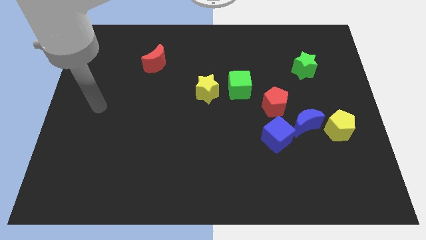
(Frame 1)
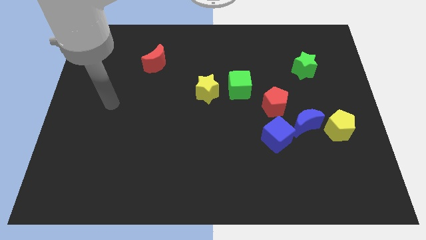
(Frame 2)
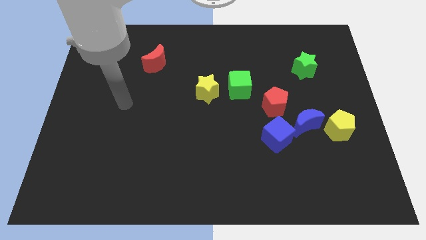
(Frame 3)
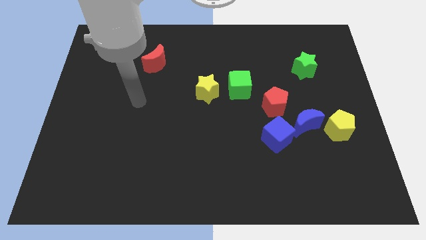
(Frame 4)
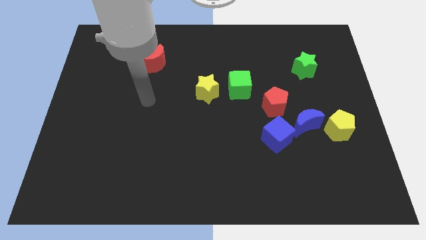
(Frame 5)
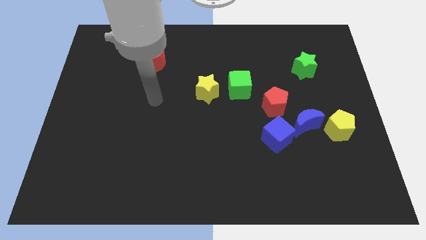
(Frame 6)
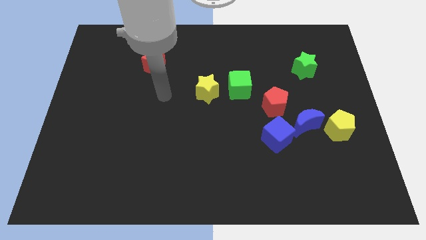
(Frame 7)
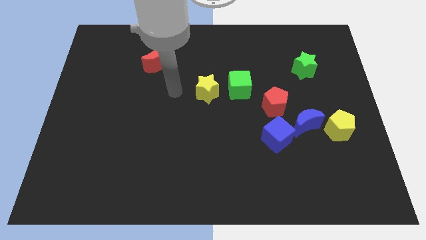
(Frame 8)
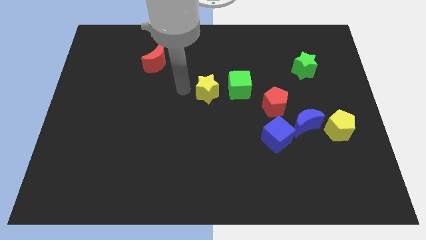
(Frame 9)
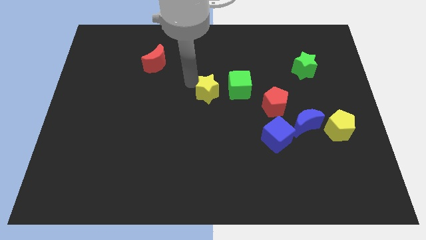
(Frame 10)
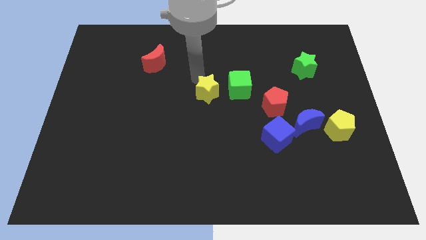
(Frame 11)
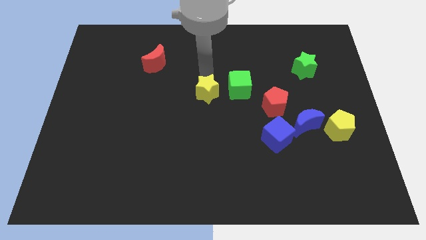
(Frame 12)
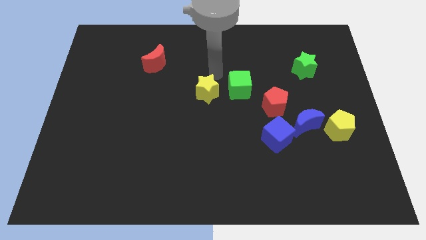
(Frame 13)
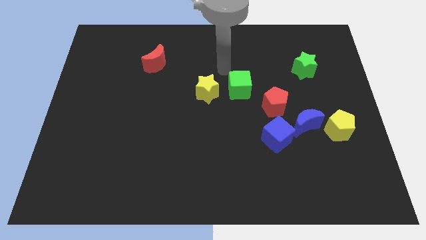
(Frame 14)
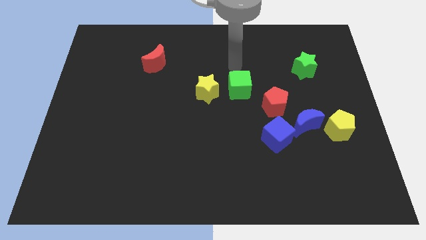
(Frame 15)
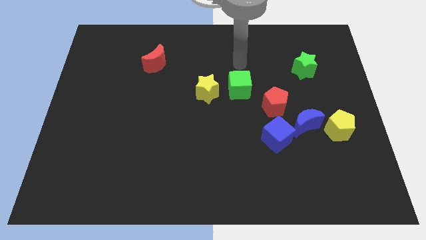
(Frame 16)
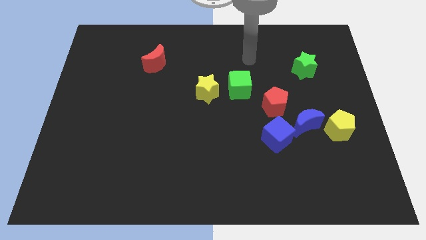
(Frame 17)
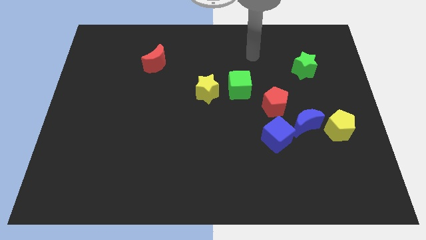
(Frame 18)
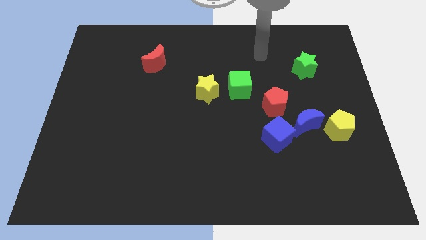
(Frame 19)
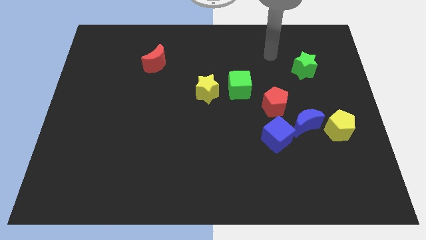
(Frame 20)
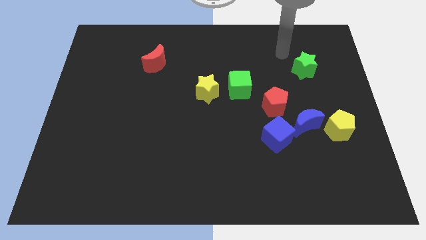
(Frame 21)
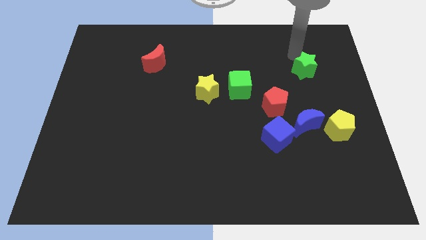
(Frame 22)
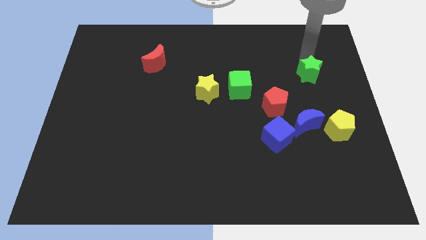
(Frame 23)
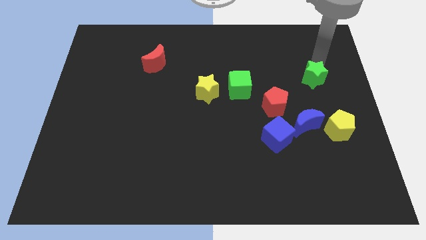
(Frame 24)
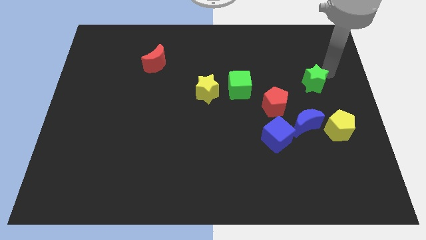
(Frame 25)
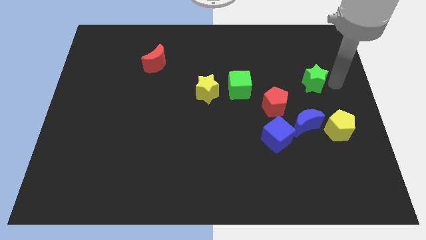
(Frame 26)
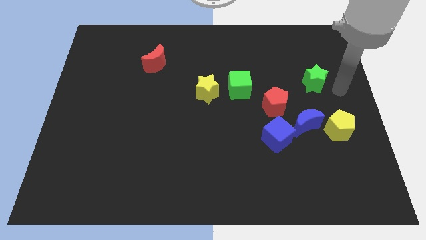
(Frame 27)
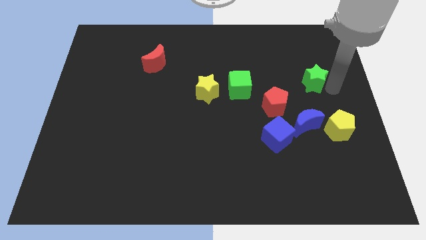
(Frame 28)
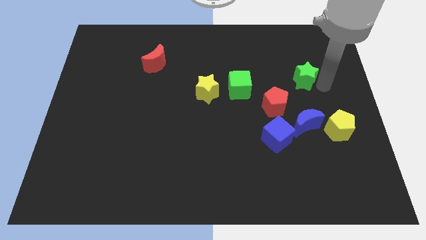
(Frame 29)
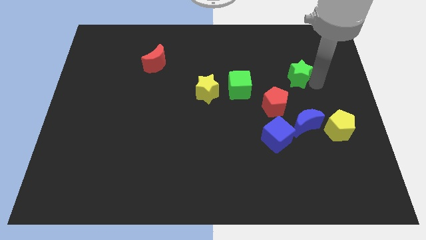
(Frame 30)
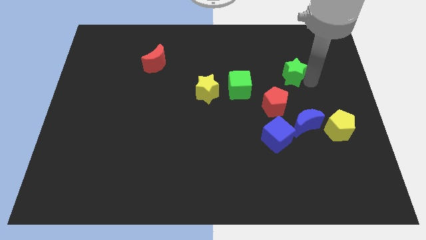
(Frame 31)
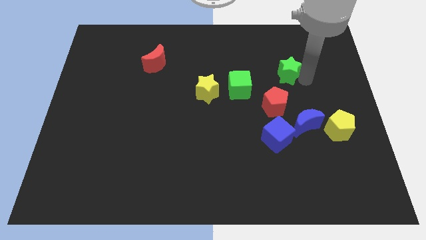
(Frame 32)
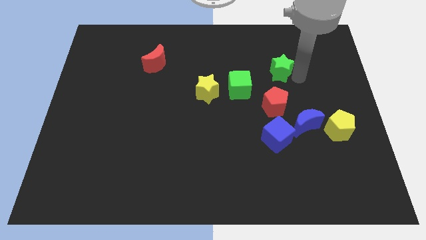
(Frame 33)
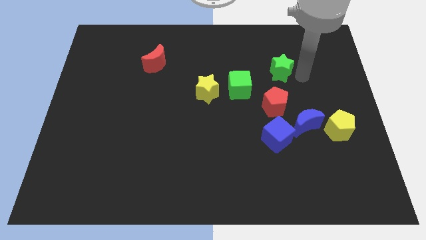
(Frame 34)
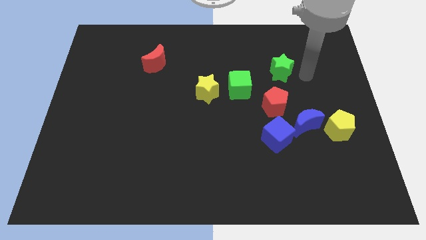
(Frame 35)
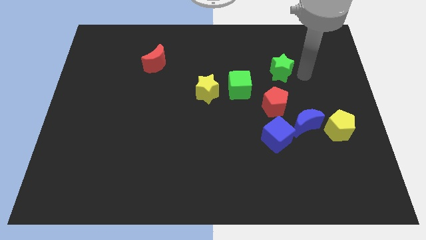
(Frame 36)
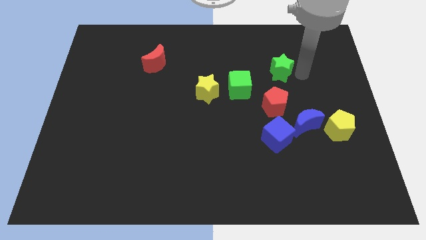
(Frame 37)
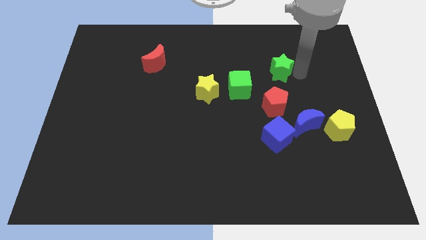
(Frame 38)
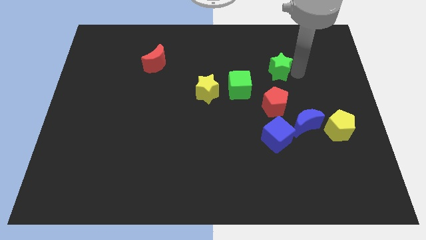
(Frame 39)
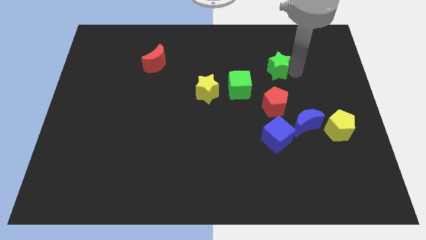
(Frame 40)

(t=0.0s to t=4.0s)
slightly move the green star left

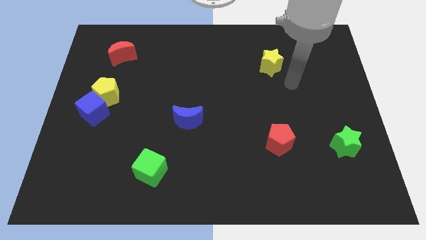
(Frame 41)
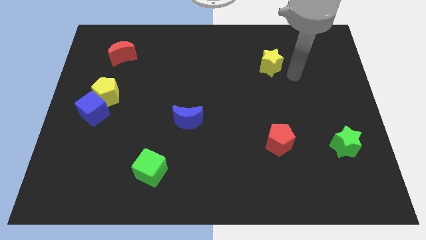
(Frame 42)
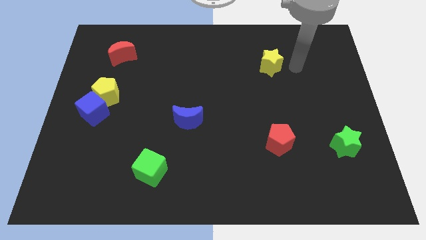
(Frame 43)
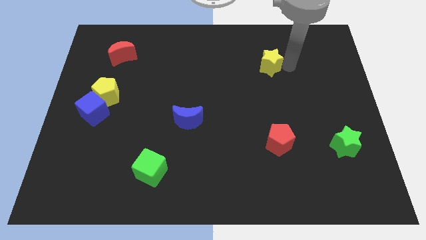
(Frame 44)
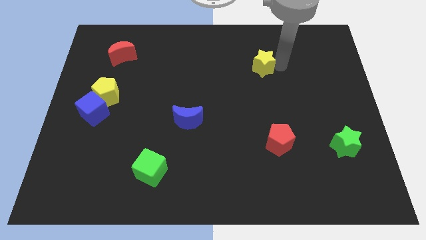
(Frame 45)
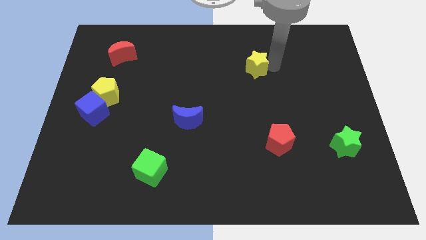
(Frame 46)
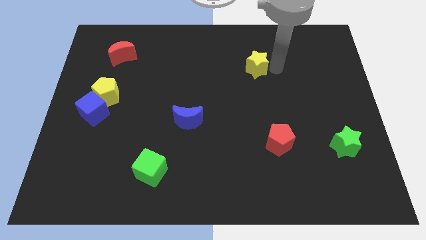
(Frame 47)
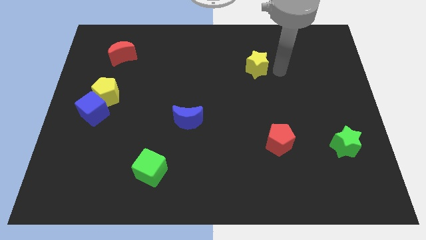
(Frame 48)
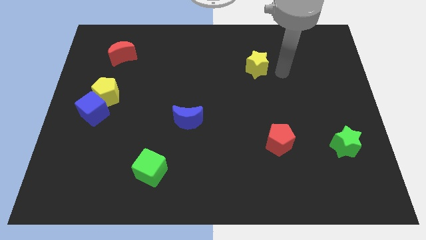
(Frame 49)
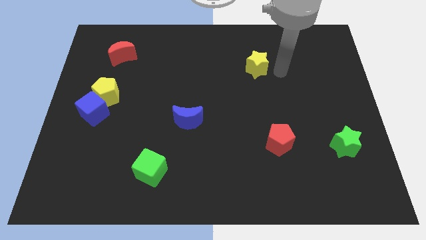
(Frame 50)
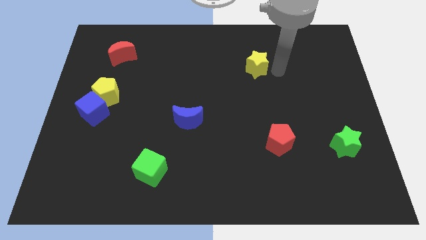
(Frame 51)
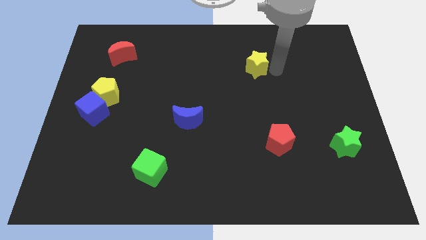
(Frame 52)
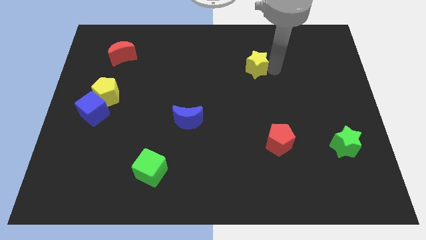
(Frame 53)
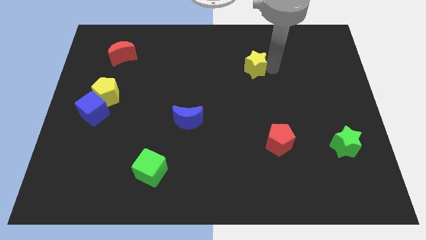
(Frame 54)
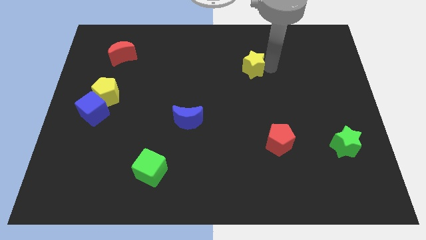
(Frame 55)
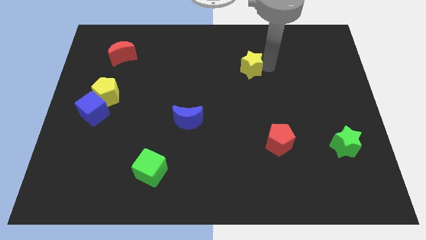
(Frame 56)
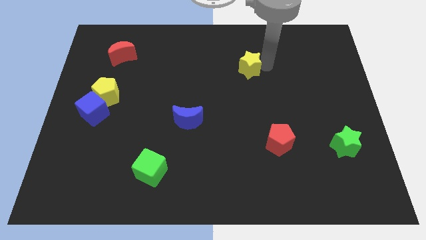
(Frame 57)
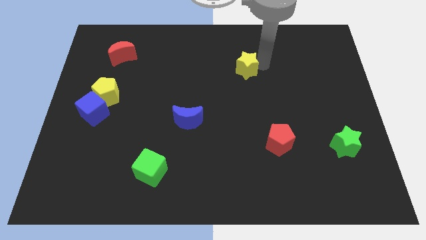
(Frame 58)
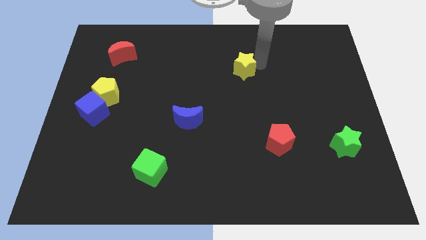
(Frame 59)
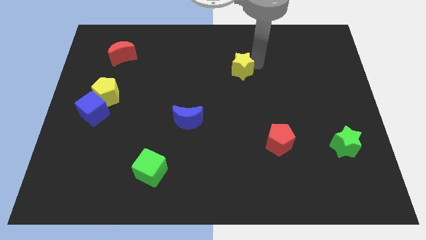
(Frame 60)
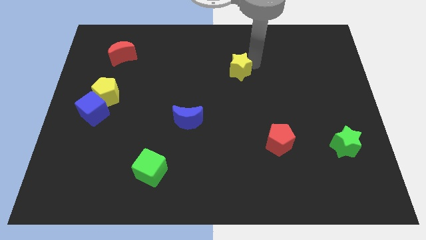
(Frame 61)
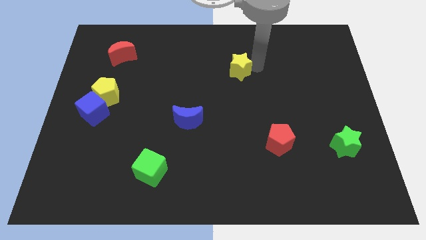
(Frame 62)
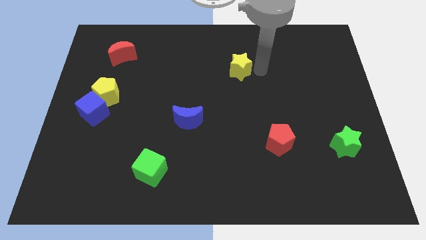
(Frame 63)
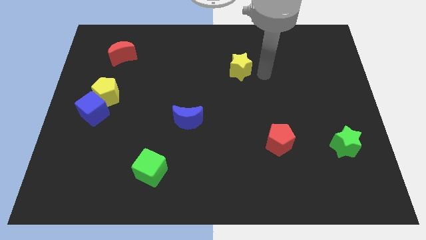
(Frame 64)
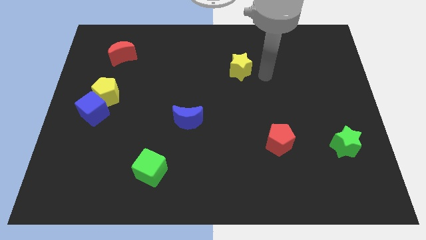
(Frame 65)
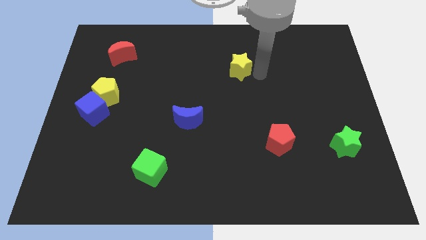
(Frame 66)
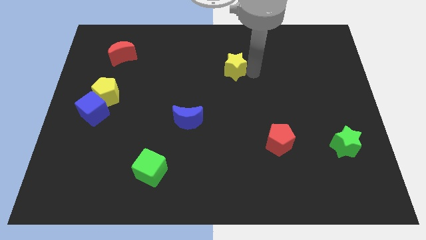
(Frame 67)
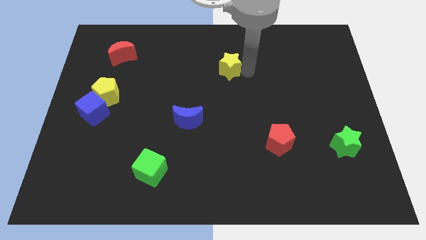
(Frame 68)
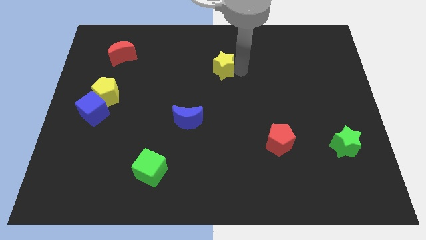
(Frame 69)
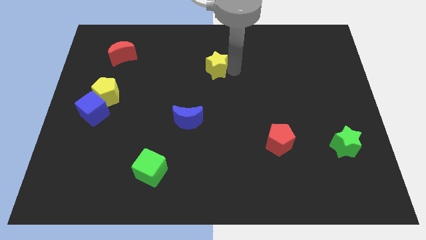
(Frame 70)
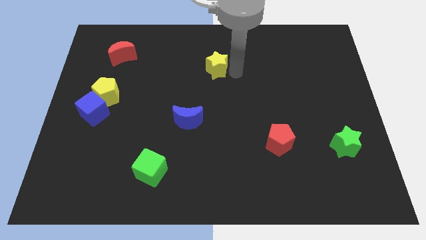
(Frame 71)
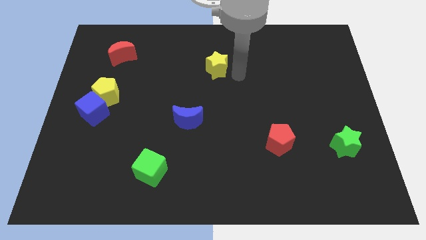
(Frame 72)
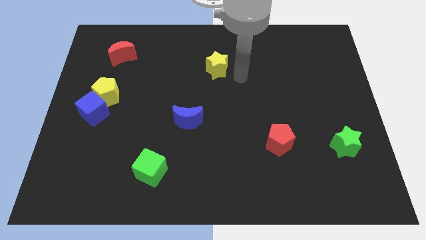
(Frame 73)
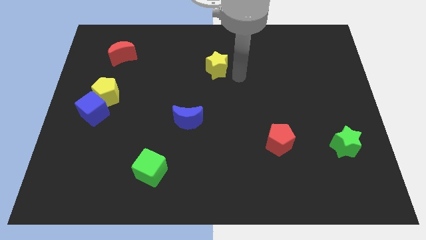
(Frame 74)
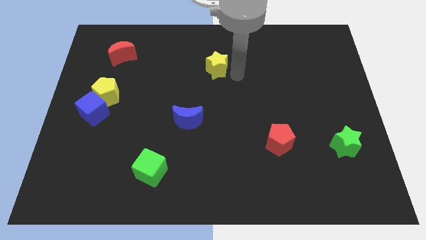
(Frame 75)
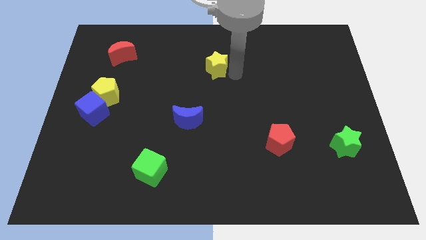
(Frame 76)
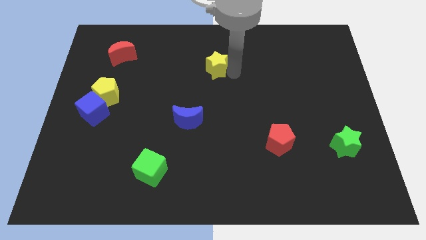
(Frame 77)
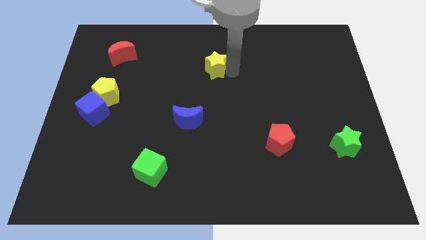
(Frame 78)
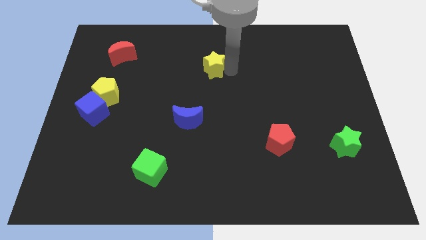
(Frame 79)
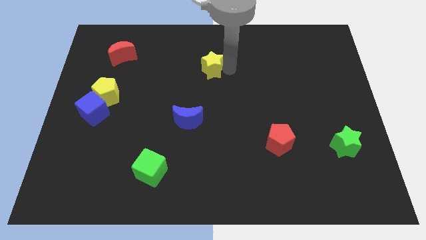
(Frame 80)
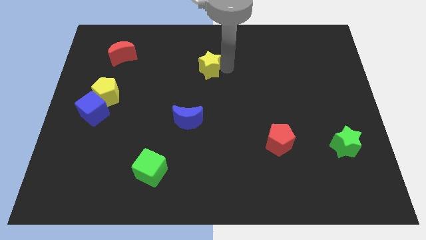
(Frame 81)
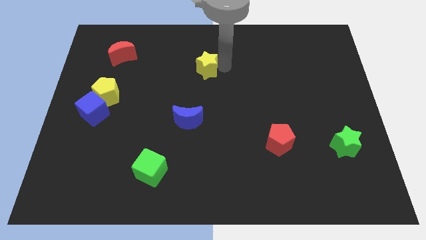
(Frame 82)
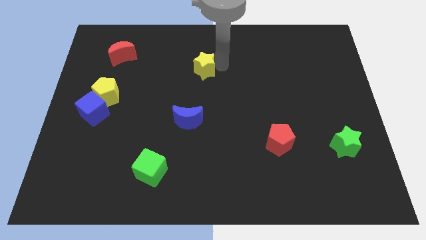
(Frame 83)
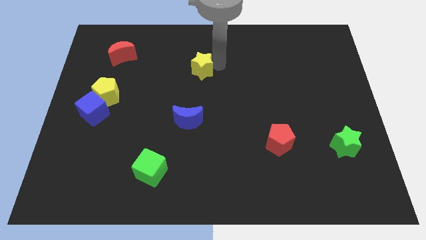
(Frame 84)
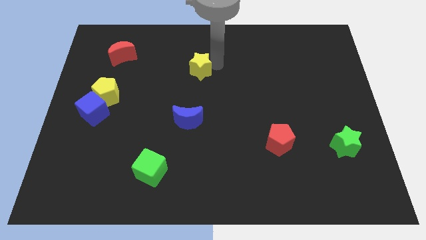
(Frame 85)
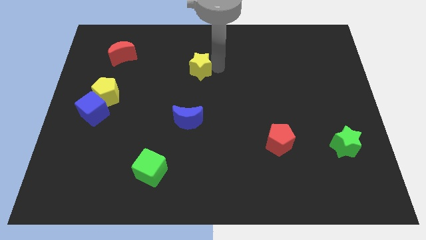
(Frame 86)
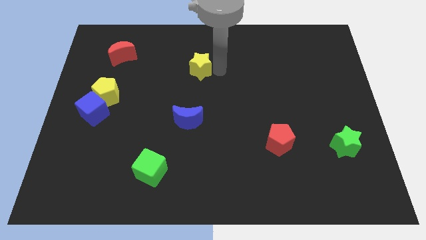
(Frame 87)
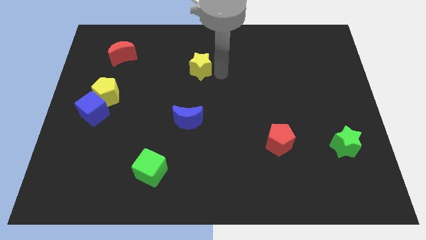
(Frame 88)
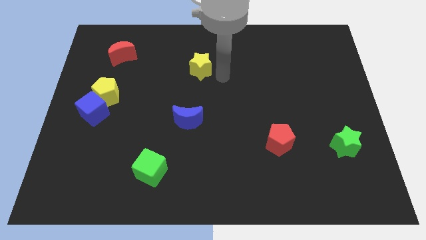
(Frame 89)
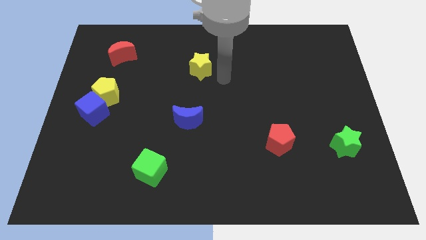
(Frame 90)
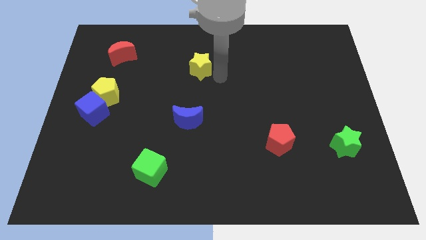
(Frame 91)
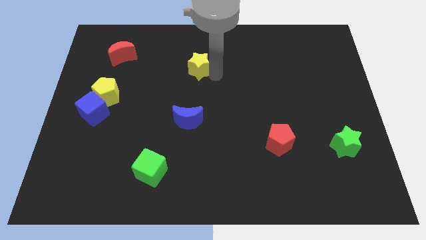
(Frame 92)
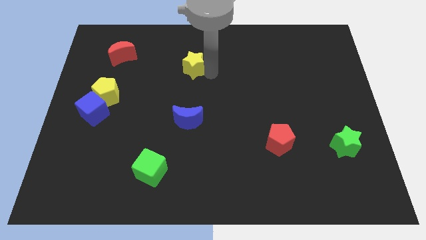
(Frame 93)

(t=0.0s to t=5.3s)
move the yellow star left
